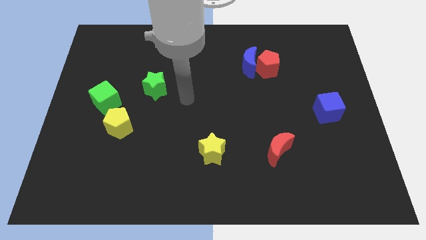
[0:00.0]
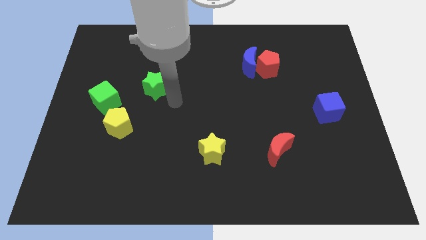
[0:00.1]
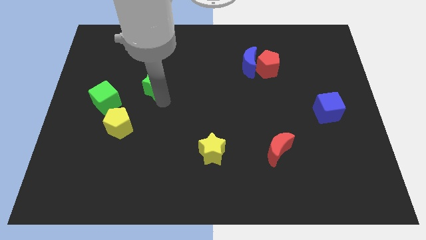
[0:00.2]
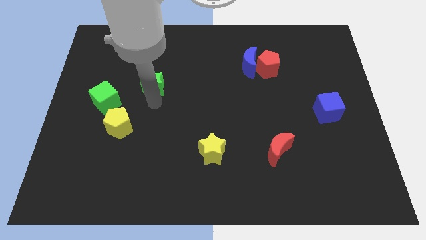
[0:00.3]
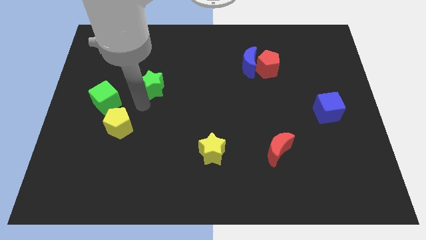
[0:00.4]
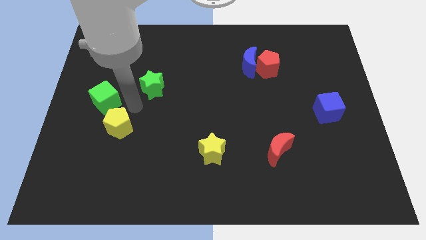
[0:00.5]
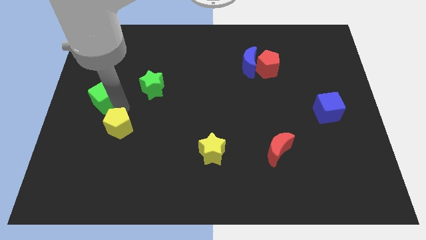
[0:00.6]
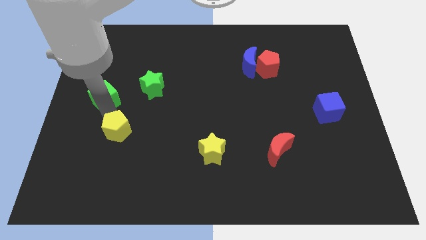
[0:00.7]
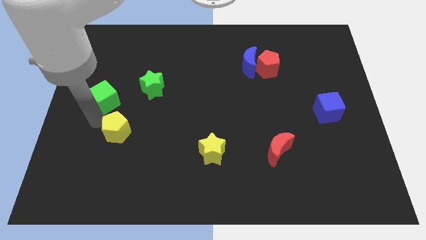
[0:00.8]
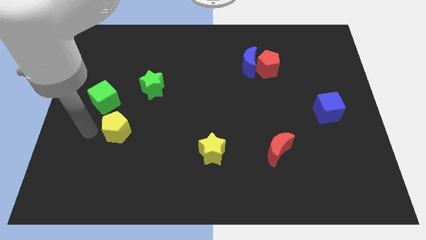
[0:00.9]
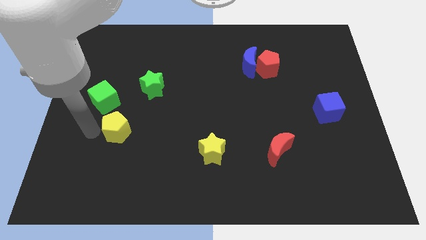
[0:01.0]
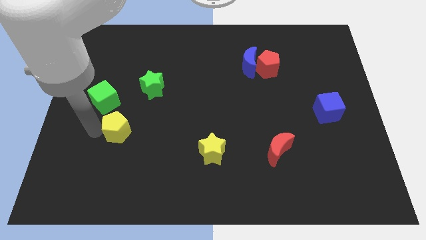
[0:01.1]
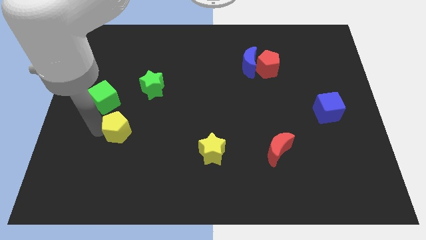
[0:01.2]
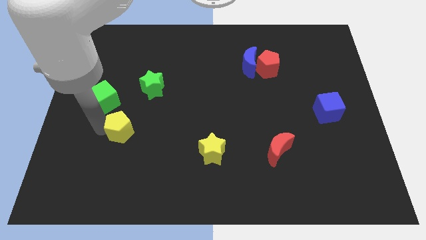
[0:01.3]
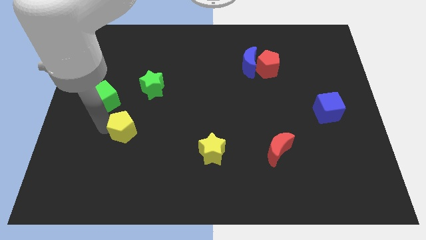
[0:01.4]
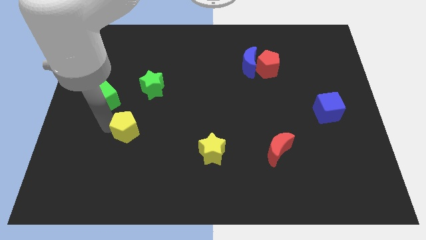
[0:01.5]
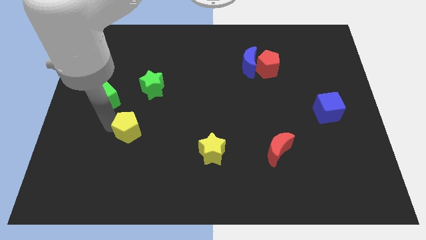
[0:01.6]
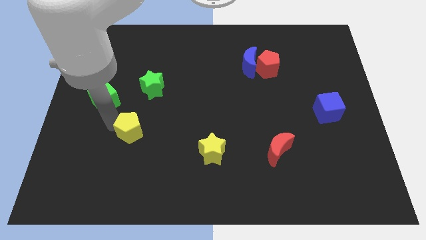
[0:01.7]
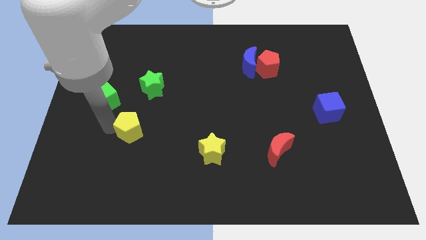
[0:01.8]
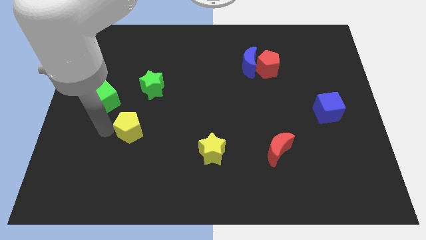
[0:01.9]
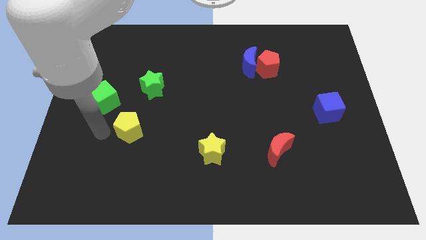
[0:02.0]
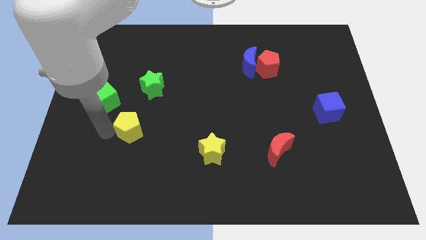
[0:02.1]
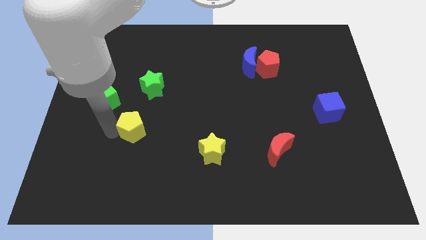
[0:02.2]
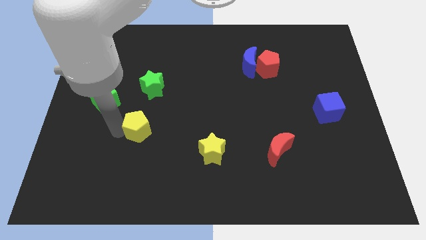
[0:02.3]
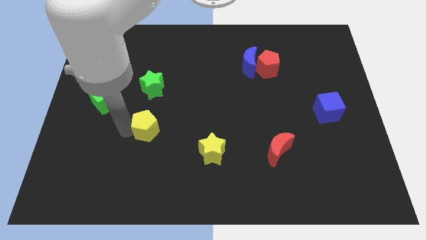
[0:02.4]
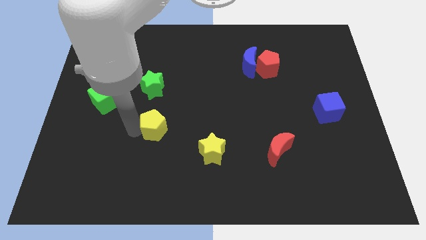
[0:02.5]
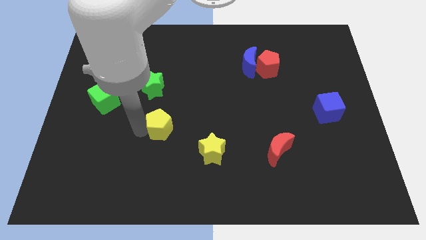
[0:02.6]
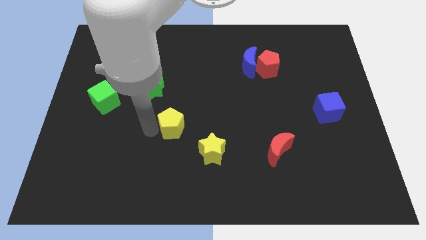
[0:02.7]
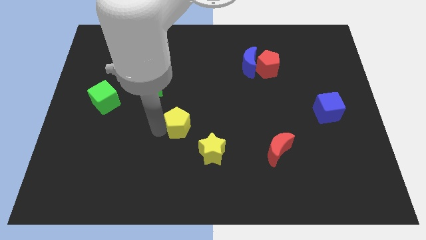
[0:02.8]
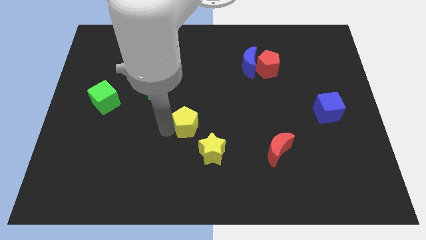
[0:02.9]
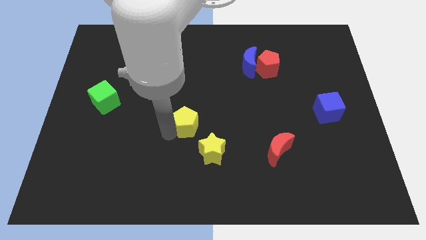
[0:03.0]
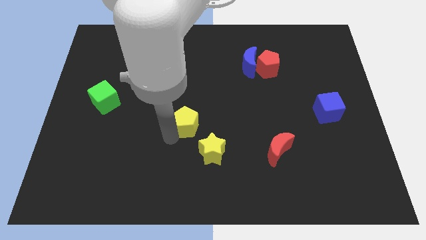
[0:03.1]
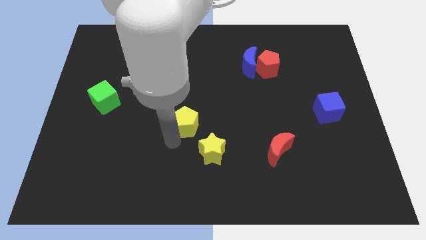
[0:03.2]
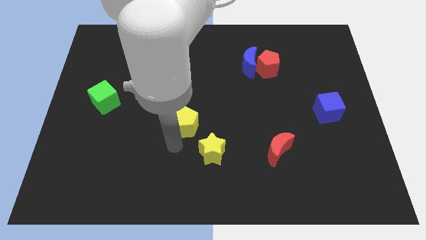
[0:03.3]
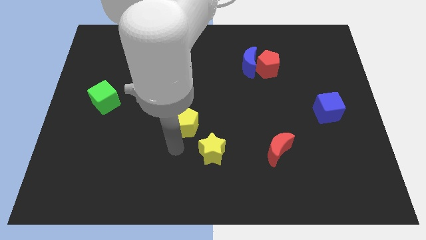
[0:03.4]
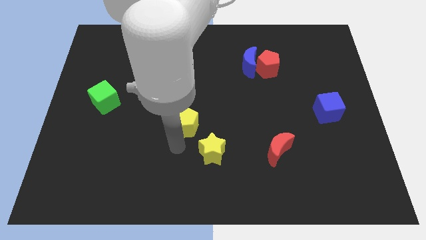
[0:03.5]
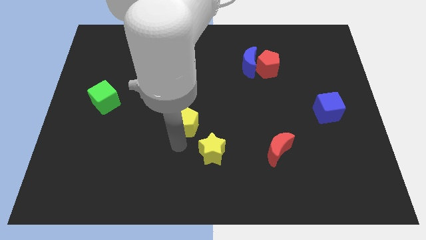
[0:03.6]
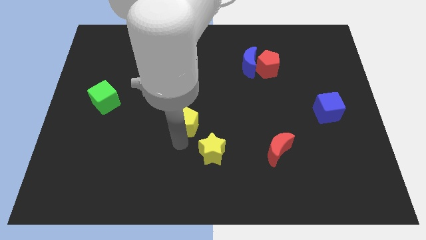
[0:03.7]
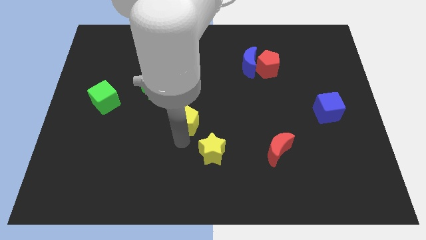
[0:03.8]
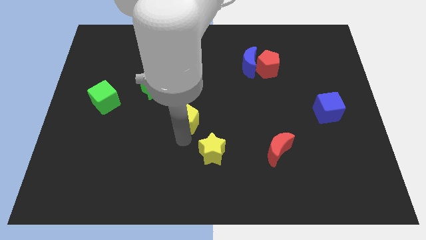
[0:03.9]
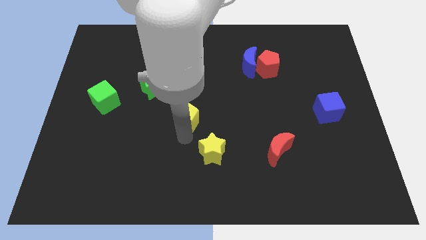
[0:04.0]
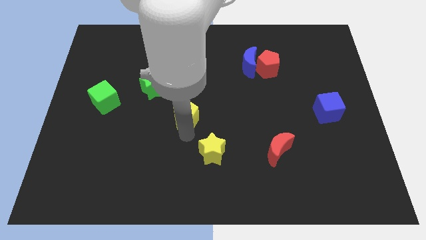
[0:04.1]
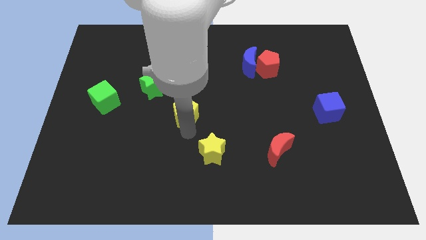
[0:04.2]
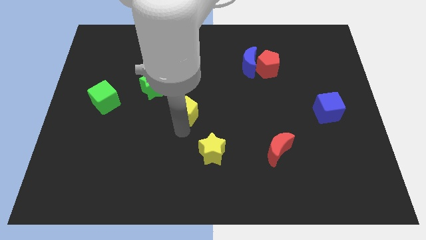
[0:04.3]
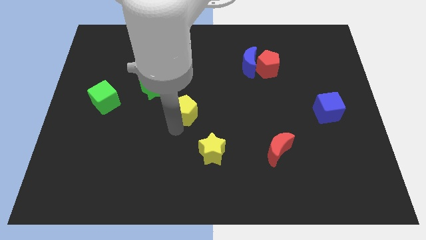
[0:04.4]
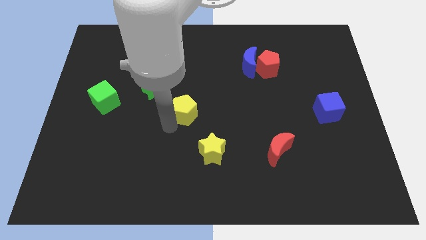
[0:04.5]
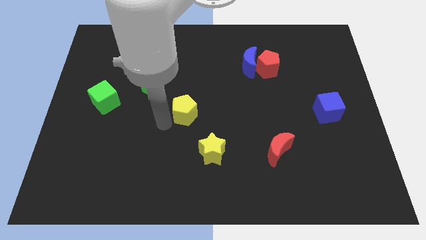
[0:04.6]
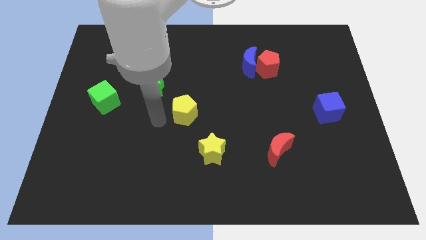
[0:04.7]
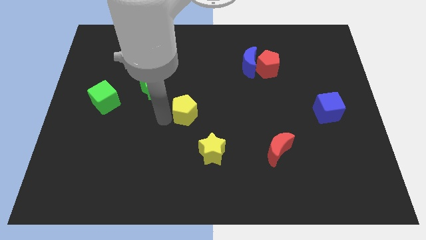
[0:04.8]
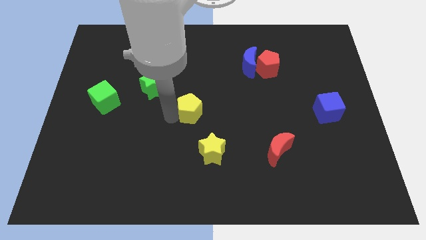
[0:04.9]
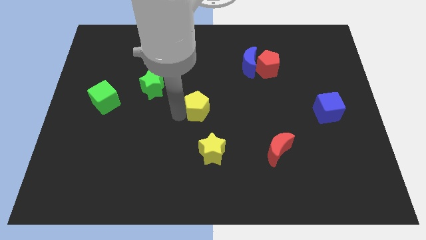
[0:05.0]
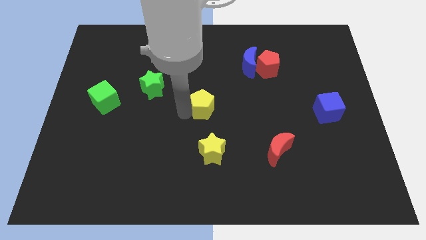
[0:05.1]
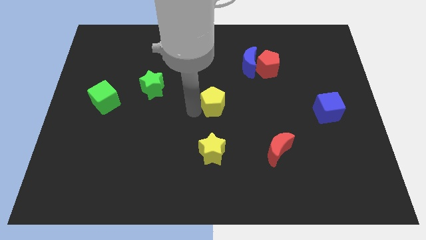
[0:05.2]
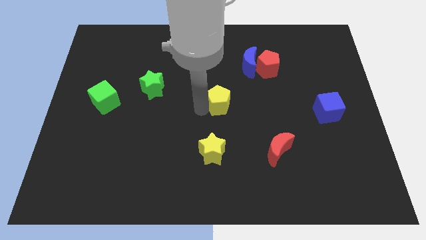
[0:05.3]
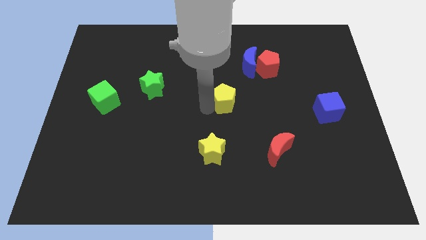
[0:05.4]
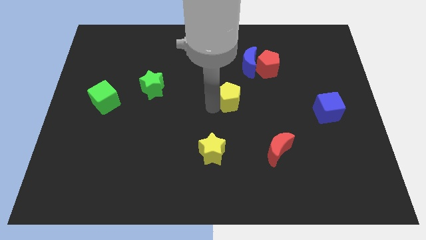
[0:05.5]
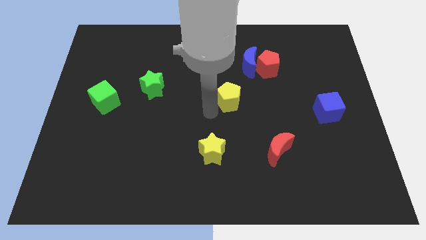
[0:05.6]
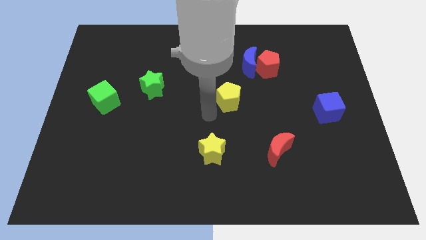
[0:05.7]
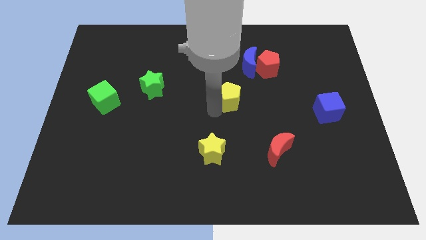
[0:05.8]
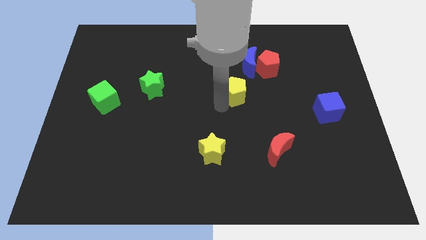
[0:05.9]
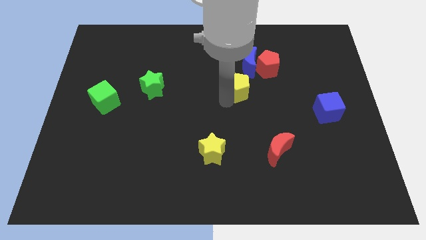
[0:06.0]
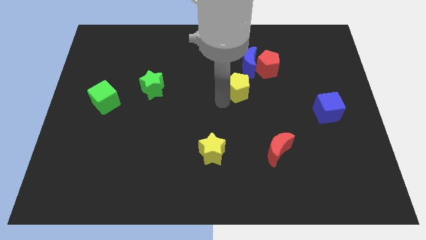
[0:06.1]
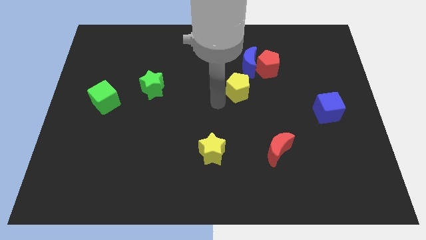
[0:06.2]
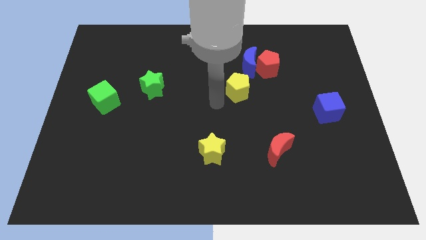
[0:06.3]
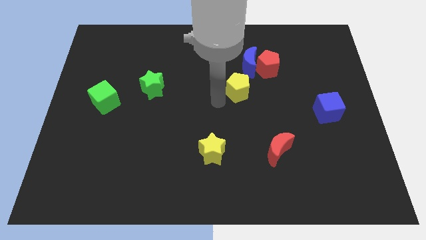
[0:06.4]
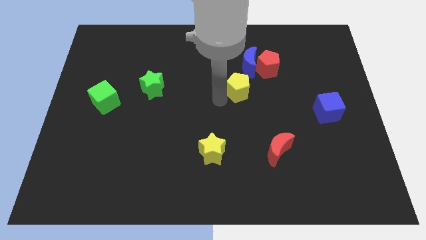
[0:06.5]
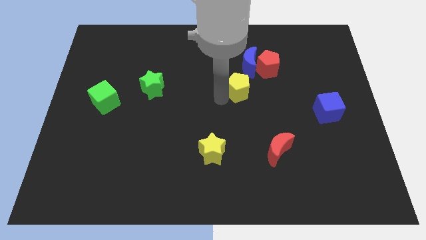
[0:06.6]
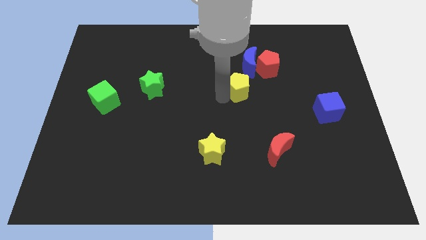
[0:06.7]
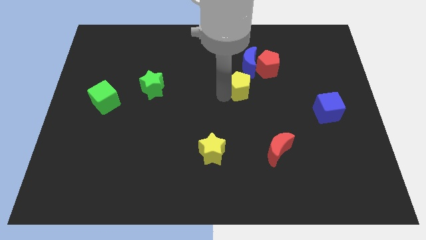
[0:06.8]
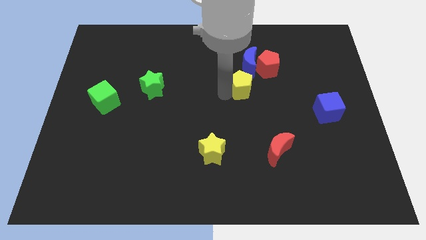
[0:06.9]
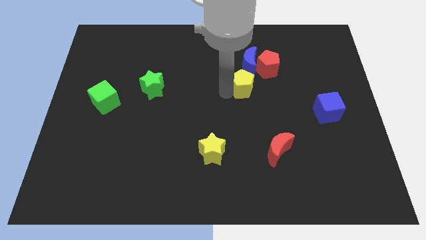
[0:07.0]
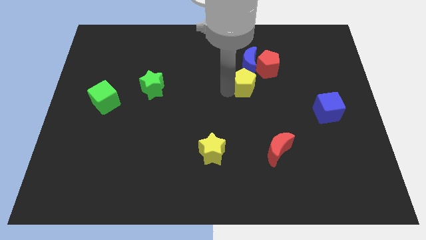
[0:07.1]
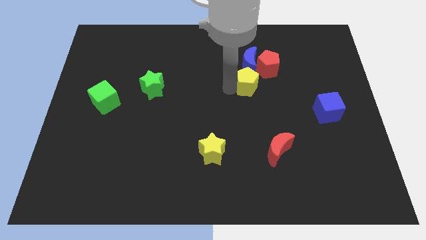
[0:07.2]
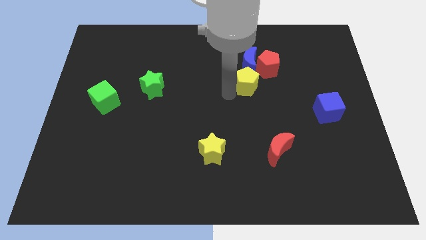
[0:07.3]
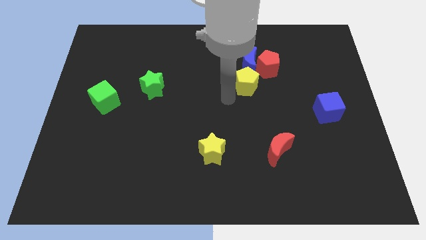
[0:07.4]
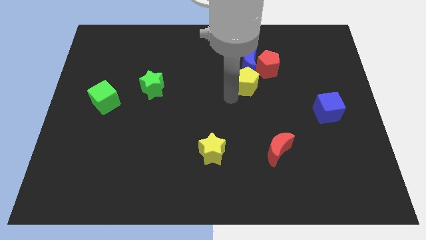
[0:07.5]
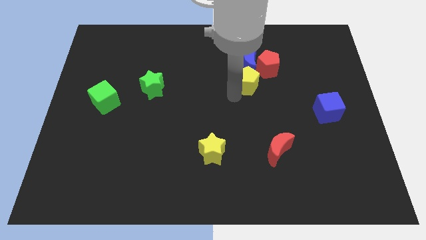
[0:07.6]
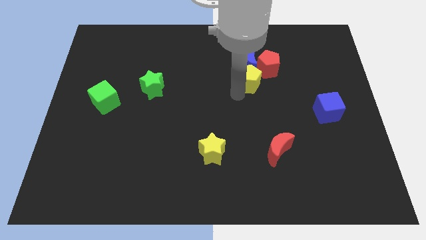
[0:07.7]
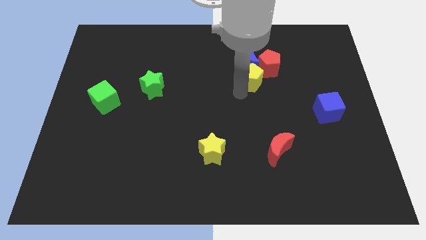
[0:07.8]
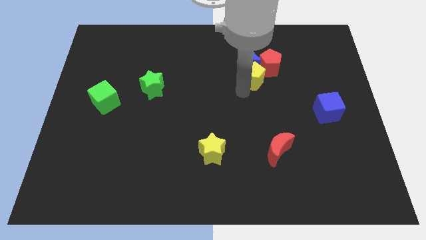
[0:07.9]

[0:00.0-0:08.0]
put the yellow pentagon to the red pentagon
